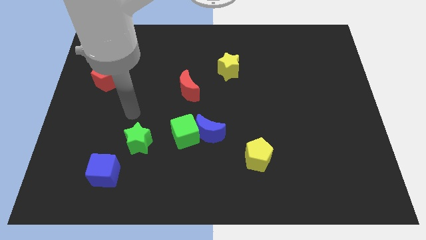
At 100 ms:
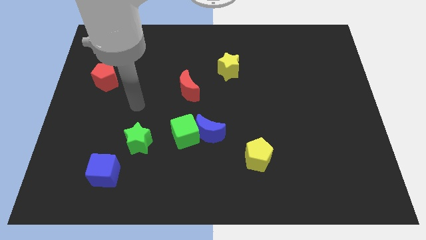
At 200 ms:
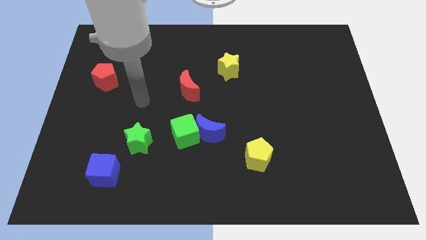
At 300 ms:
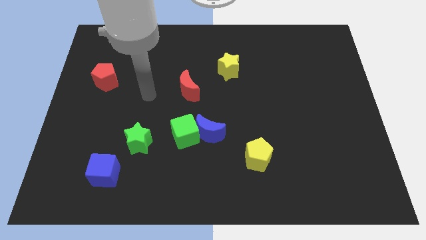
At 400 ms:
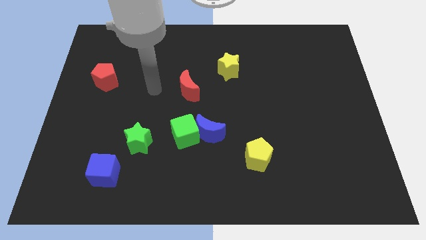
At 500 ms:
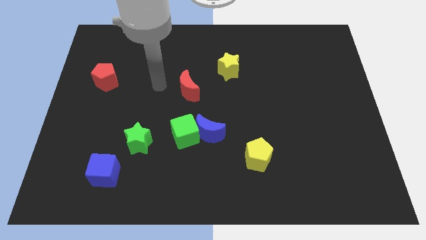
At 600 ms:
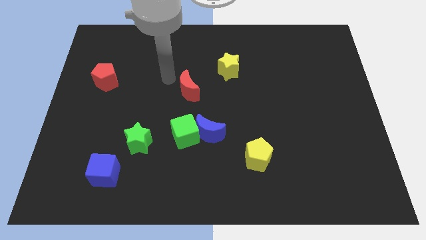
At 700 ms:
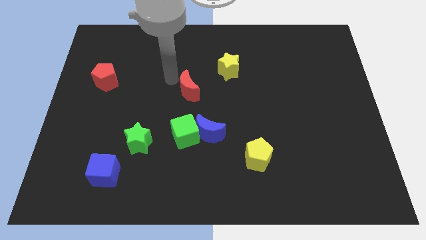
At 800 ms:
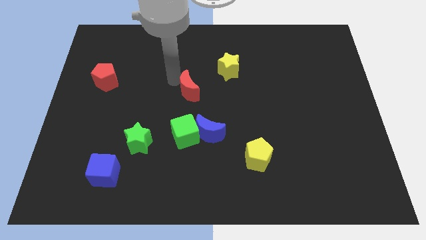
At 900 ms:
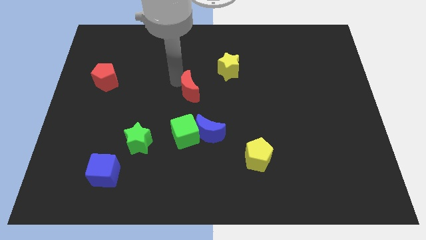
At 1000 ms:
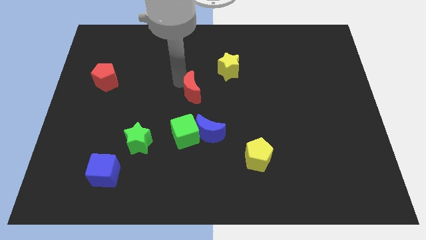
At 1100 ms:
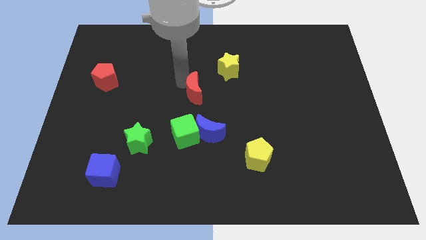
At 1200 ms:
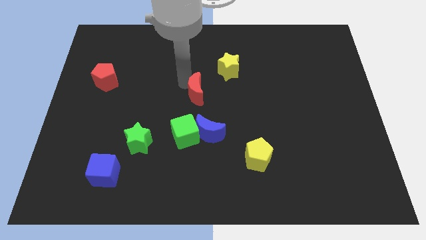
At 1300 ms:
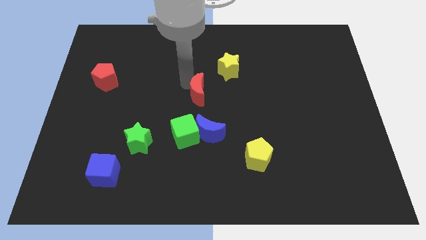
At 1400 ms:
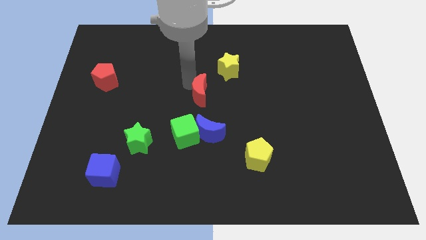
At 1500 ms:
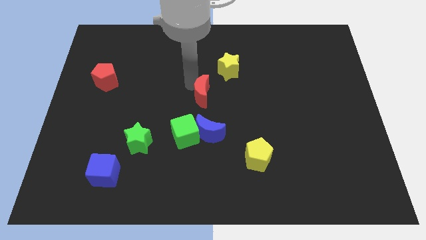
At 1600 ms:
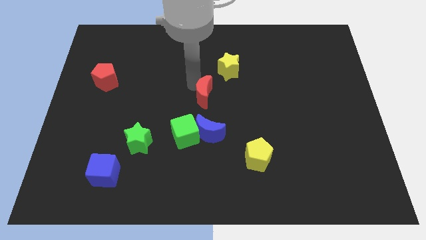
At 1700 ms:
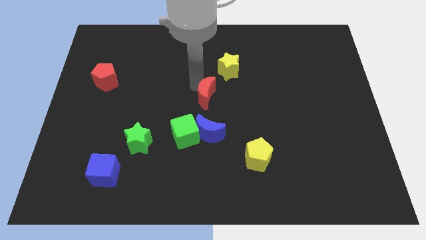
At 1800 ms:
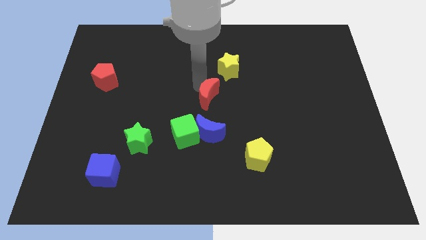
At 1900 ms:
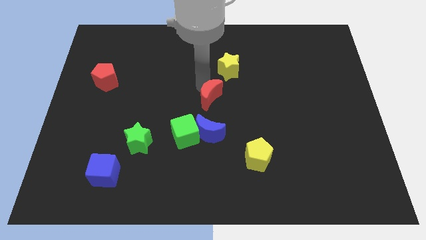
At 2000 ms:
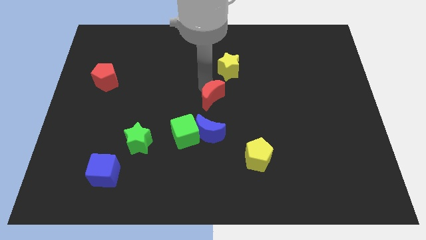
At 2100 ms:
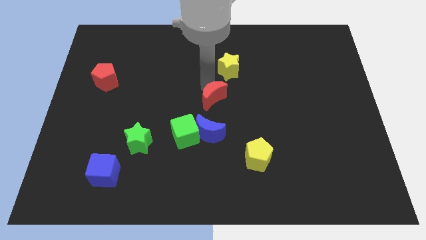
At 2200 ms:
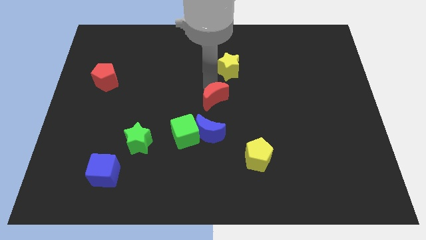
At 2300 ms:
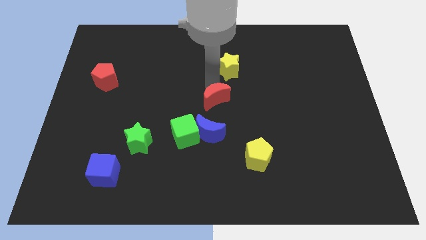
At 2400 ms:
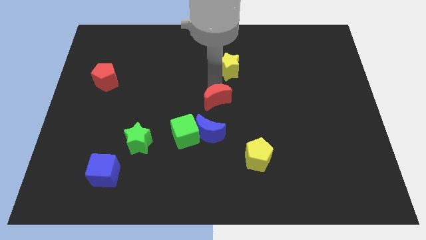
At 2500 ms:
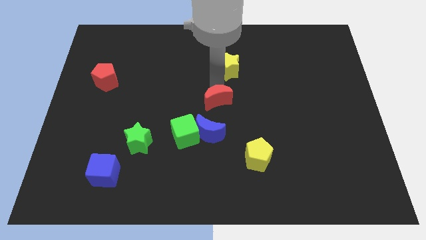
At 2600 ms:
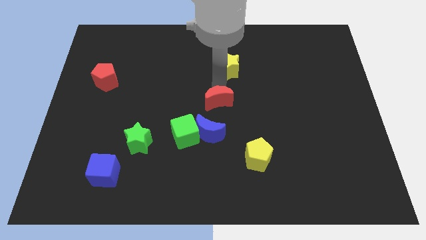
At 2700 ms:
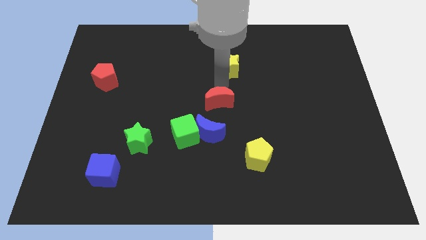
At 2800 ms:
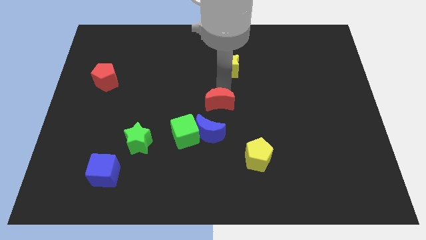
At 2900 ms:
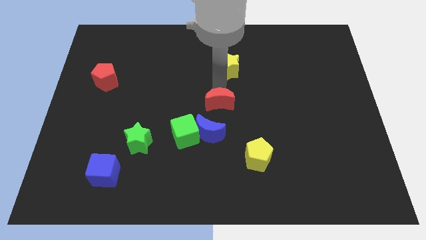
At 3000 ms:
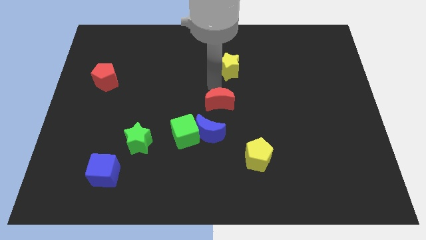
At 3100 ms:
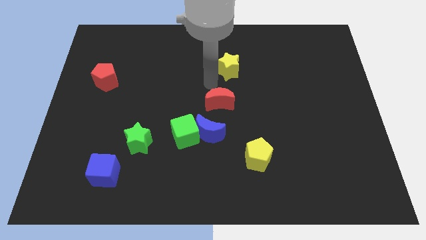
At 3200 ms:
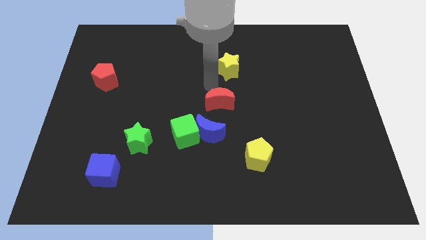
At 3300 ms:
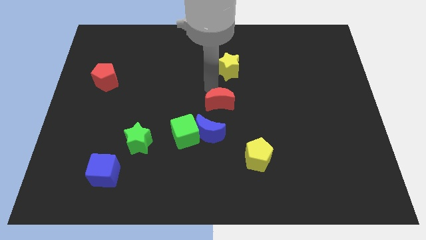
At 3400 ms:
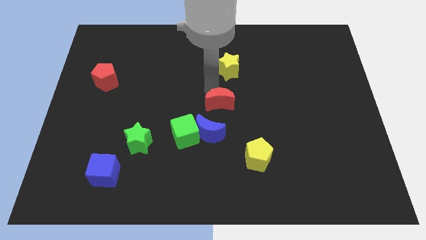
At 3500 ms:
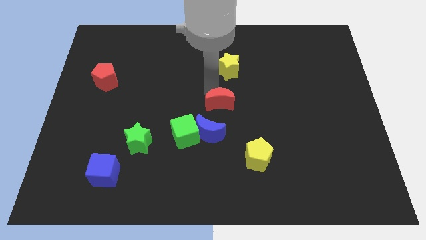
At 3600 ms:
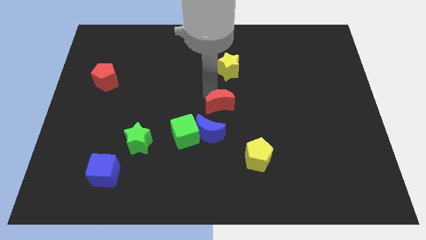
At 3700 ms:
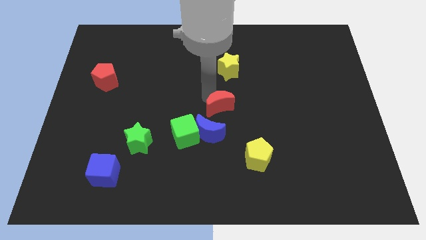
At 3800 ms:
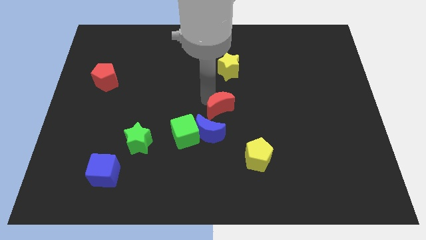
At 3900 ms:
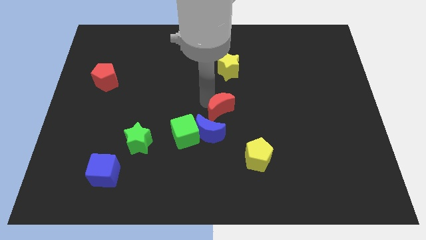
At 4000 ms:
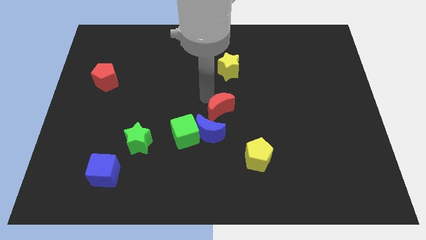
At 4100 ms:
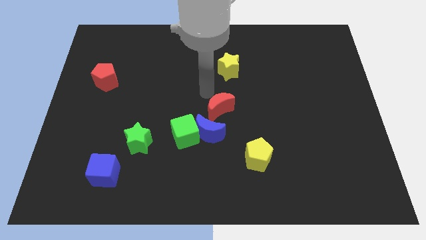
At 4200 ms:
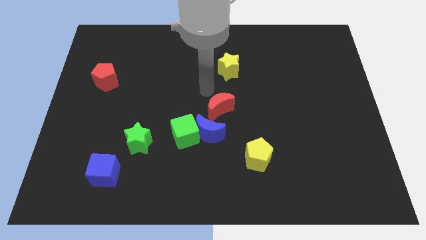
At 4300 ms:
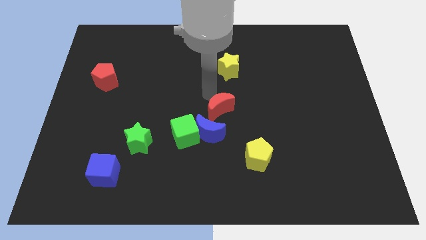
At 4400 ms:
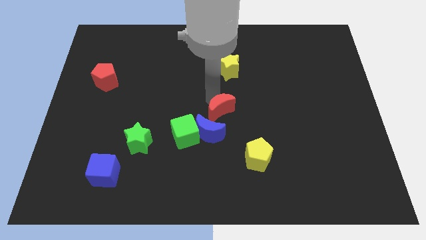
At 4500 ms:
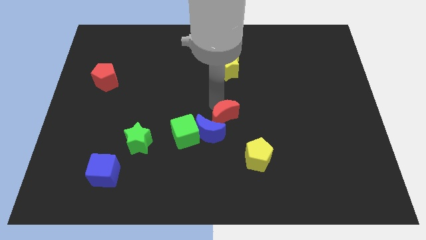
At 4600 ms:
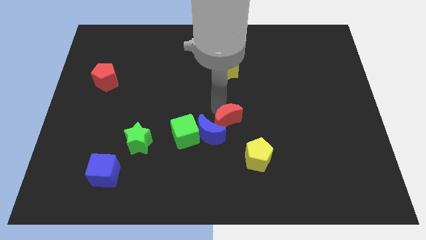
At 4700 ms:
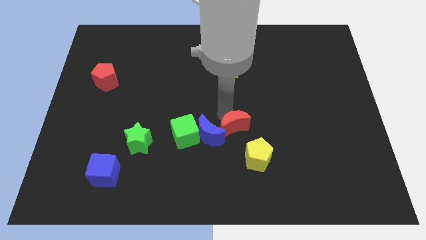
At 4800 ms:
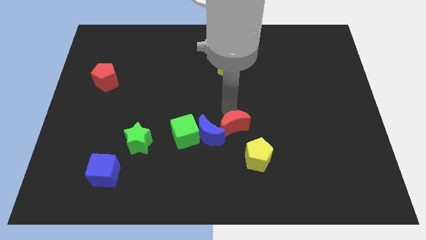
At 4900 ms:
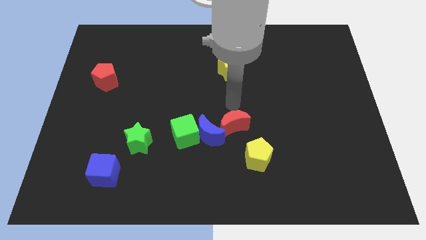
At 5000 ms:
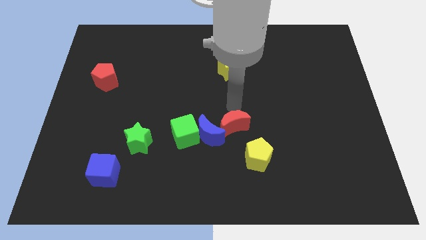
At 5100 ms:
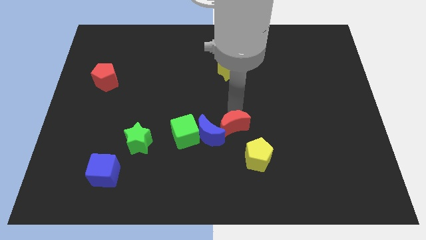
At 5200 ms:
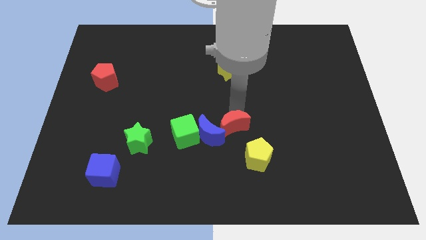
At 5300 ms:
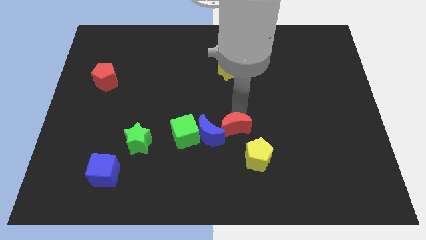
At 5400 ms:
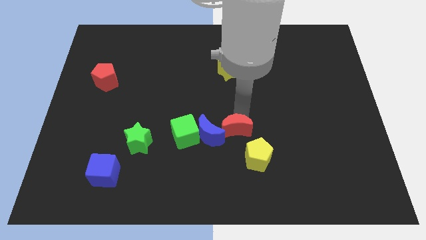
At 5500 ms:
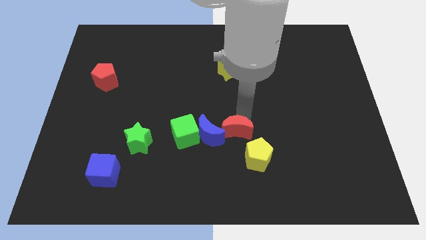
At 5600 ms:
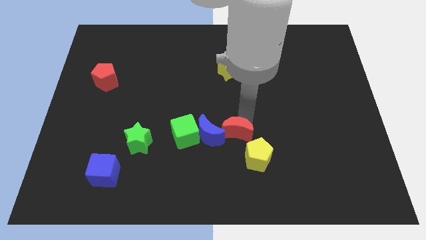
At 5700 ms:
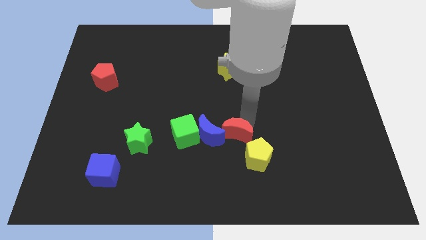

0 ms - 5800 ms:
put the red moon to the bottom right side of the blue moon
